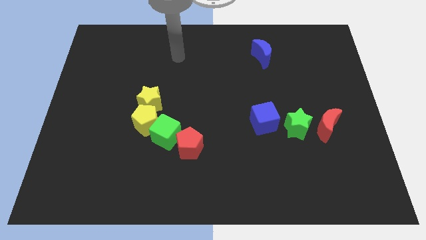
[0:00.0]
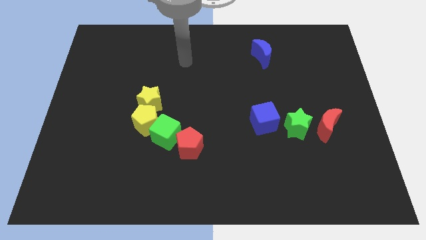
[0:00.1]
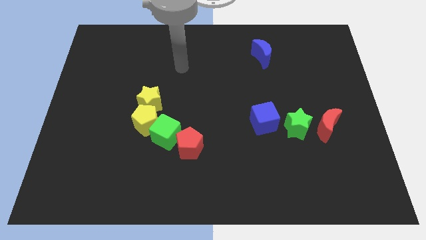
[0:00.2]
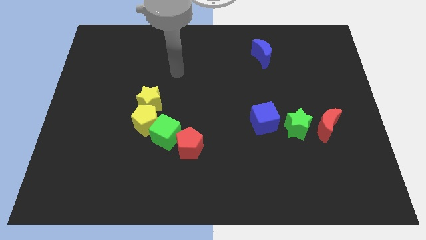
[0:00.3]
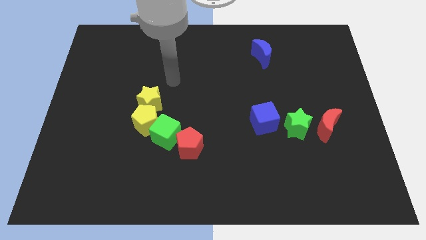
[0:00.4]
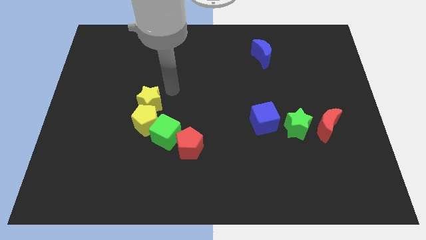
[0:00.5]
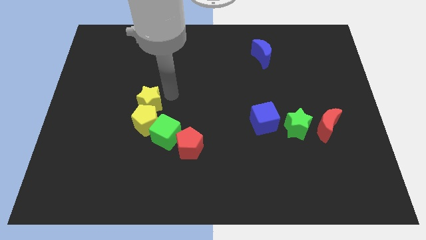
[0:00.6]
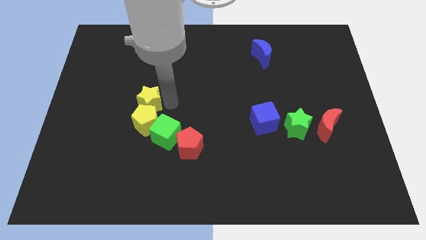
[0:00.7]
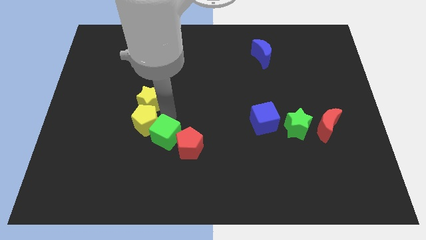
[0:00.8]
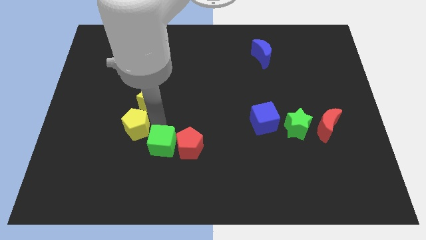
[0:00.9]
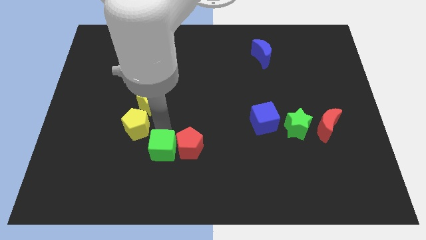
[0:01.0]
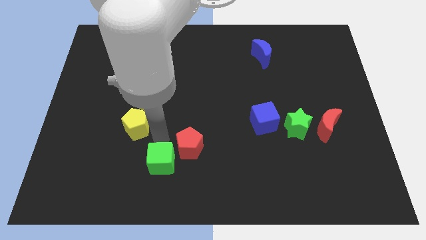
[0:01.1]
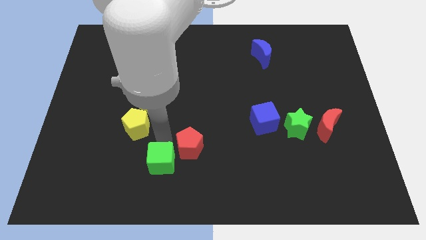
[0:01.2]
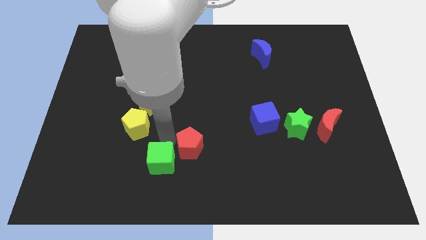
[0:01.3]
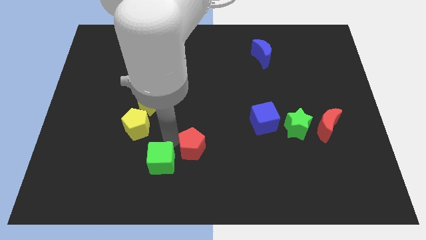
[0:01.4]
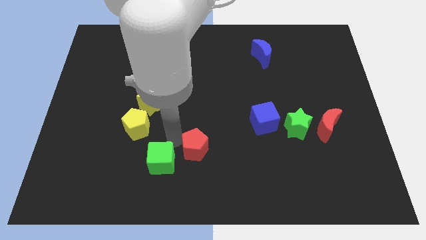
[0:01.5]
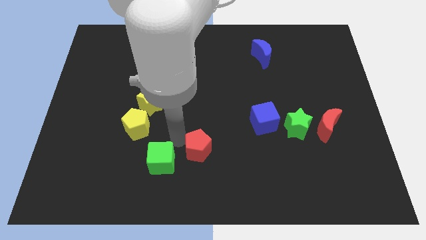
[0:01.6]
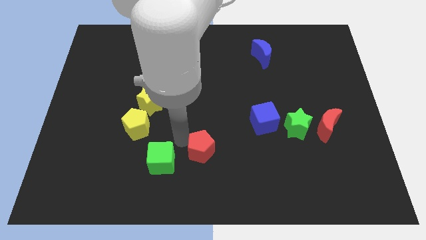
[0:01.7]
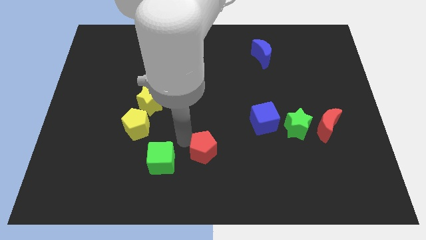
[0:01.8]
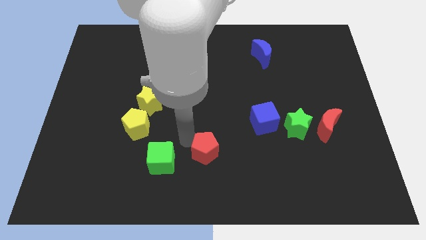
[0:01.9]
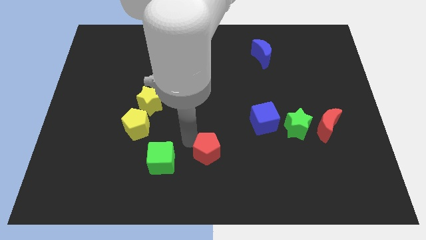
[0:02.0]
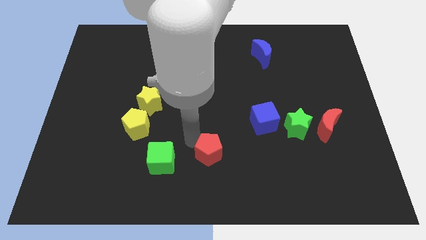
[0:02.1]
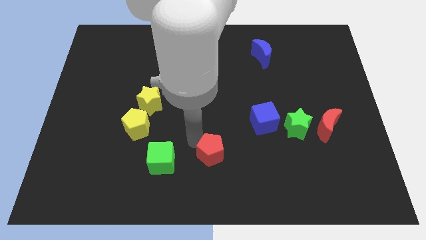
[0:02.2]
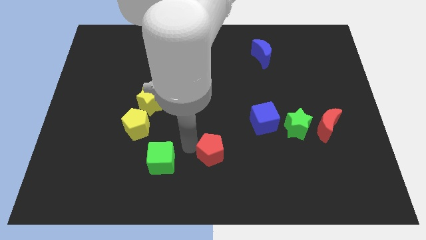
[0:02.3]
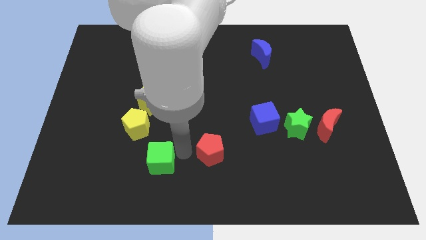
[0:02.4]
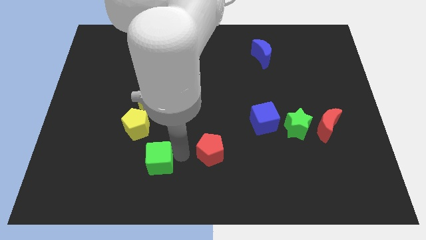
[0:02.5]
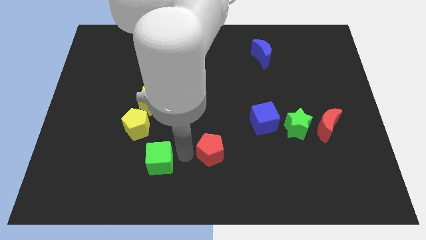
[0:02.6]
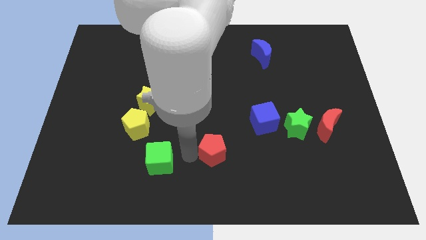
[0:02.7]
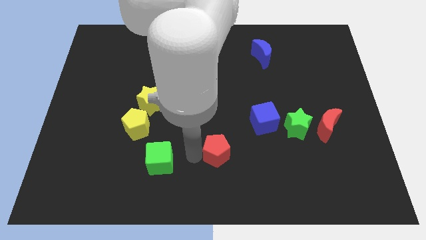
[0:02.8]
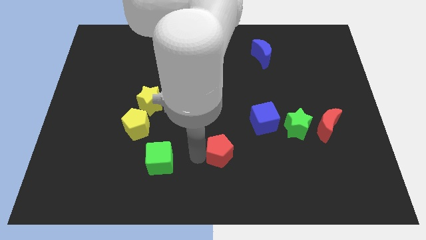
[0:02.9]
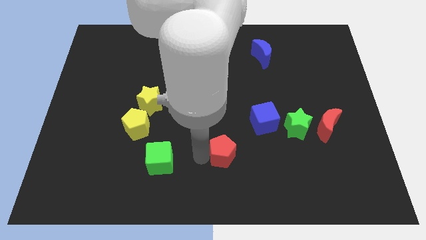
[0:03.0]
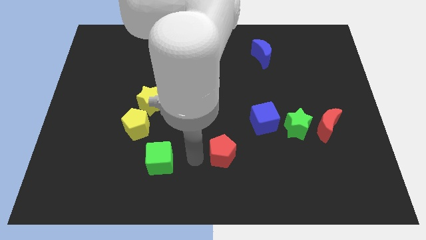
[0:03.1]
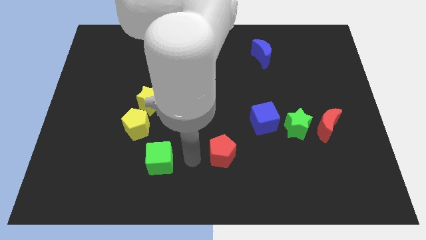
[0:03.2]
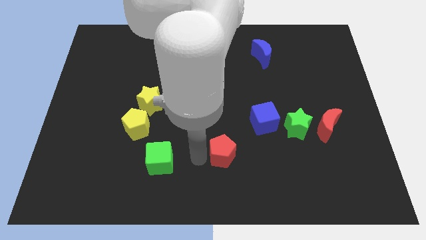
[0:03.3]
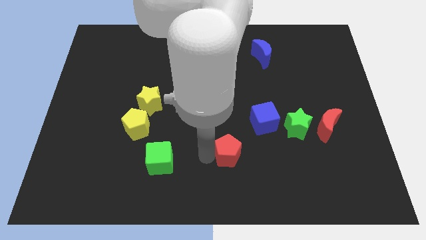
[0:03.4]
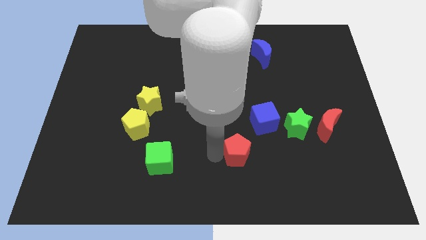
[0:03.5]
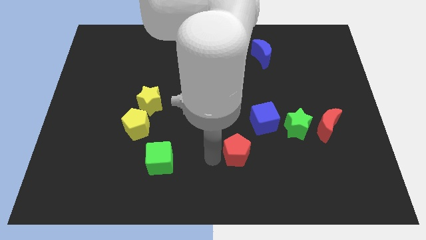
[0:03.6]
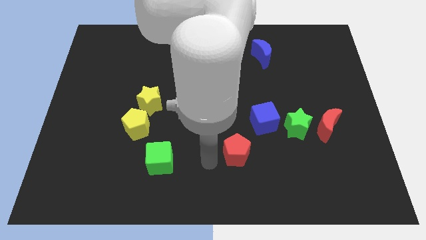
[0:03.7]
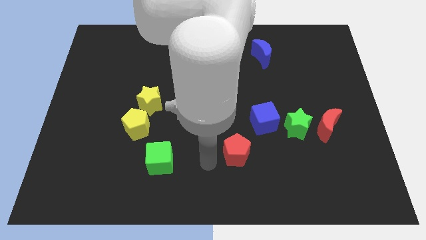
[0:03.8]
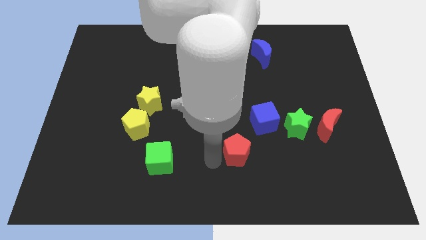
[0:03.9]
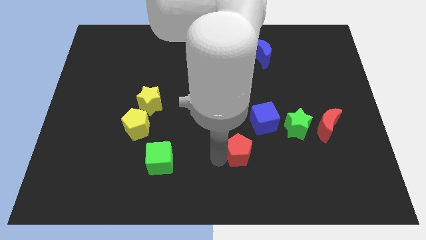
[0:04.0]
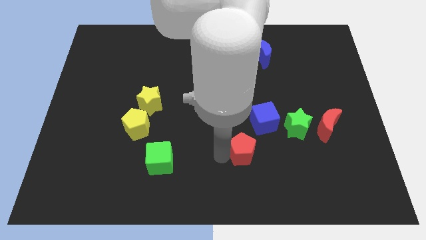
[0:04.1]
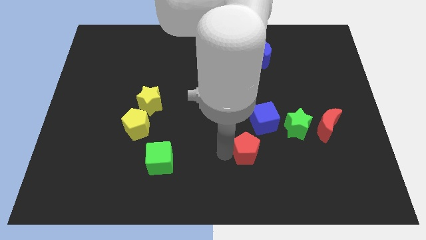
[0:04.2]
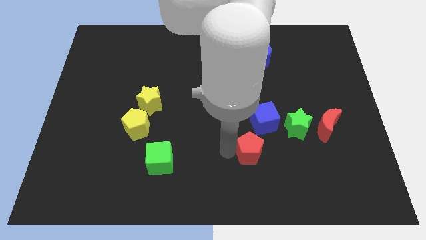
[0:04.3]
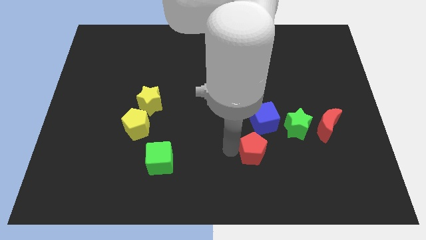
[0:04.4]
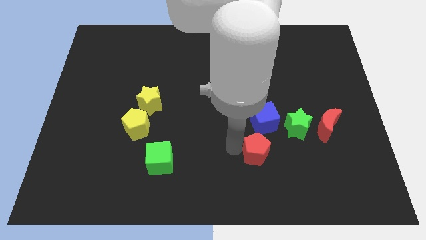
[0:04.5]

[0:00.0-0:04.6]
put the red pentagon to the bottom left of the green star

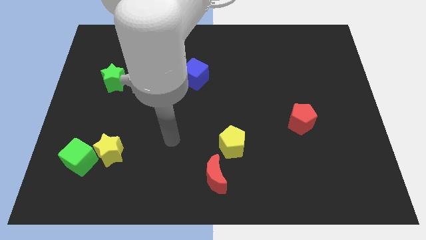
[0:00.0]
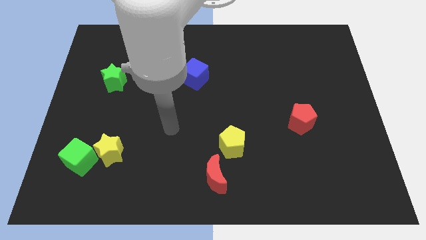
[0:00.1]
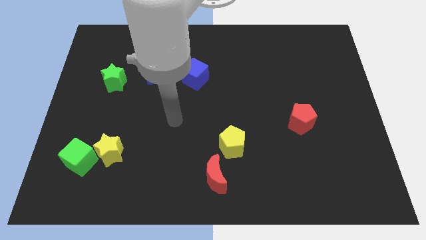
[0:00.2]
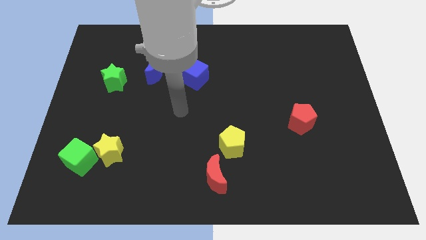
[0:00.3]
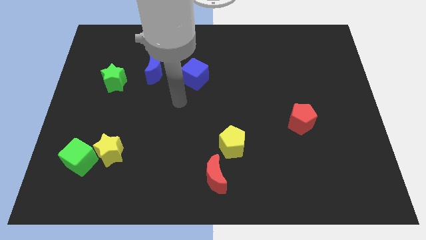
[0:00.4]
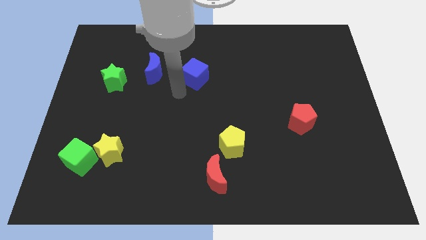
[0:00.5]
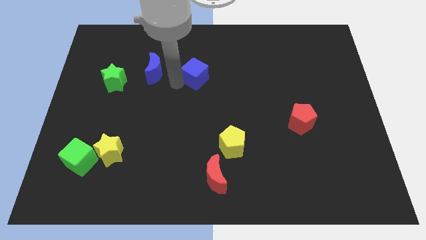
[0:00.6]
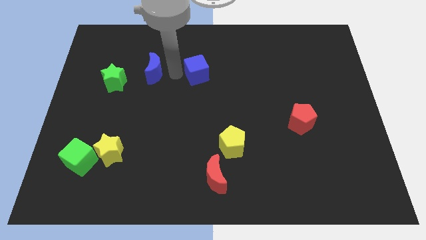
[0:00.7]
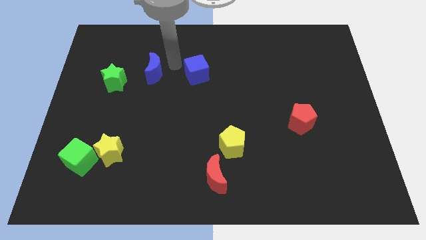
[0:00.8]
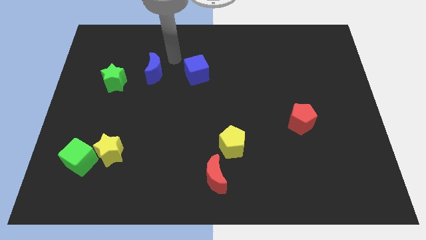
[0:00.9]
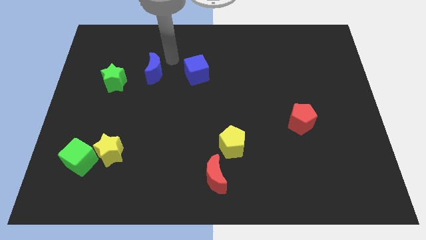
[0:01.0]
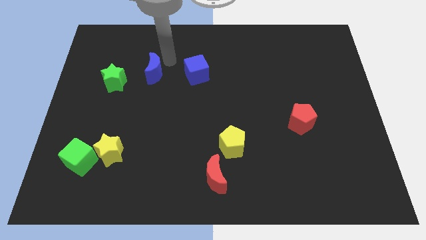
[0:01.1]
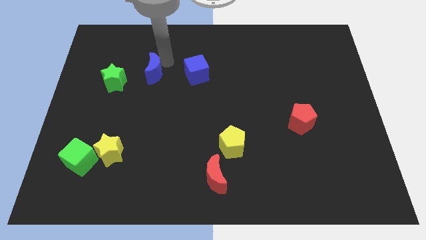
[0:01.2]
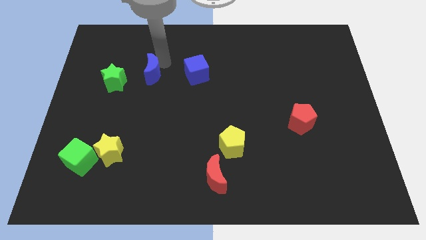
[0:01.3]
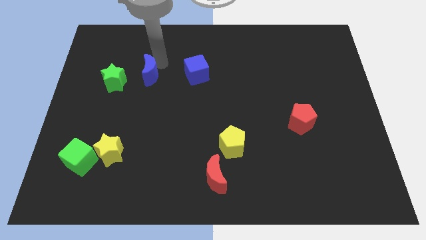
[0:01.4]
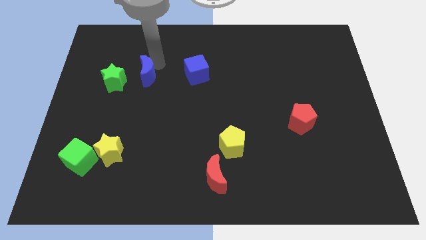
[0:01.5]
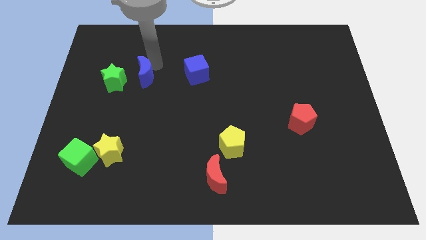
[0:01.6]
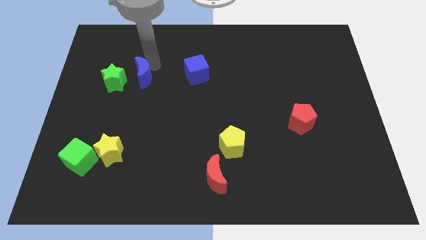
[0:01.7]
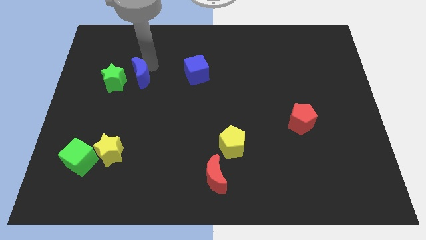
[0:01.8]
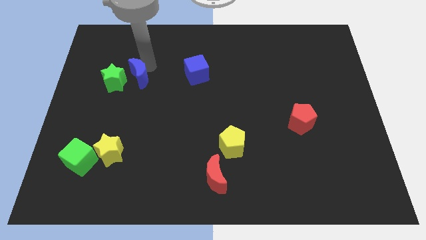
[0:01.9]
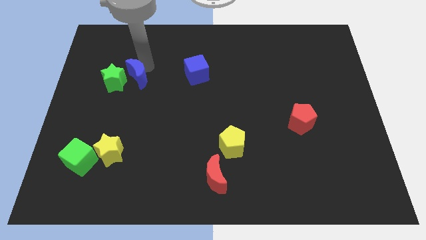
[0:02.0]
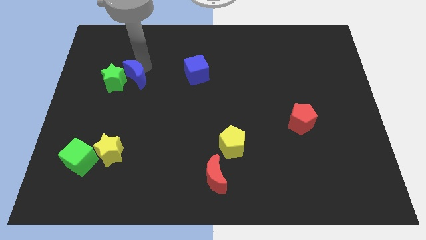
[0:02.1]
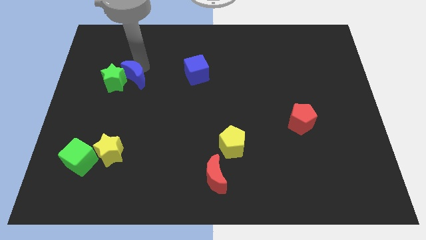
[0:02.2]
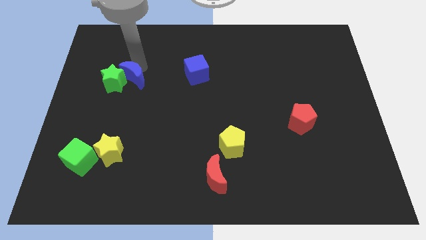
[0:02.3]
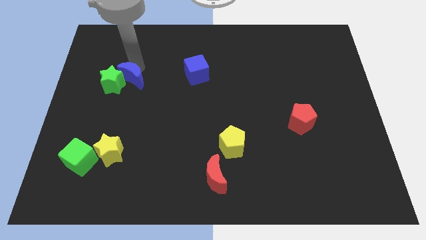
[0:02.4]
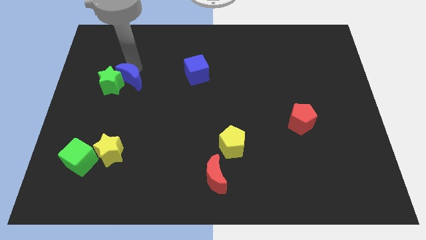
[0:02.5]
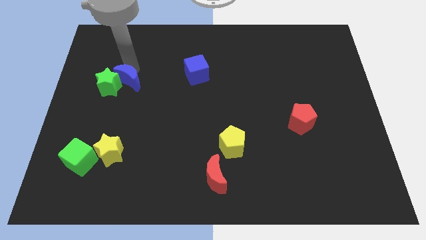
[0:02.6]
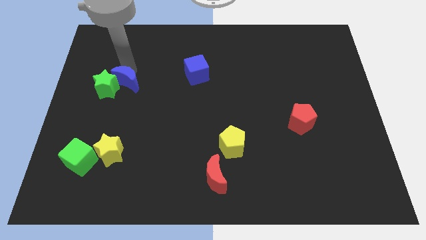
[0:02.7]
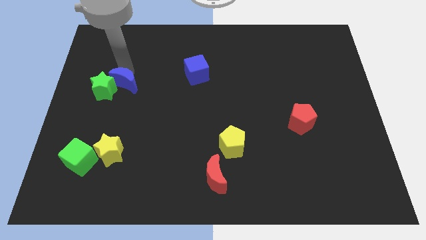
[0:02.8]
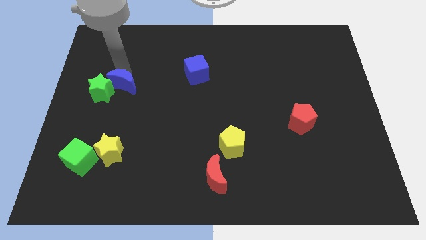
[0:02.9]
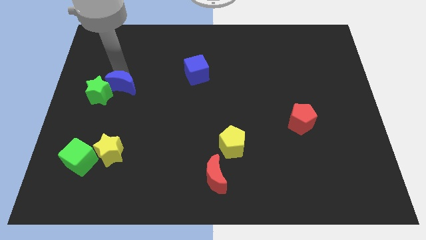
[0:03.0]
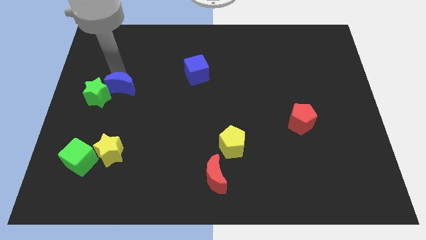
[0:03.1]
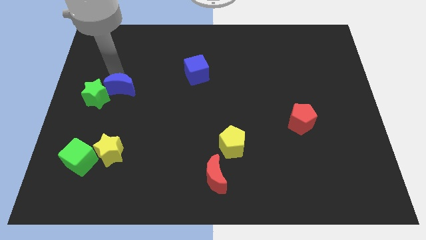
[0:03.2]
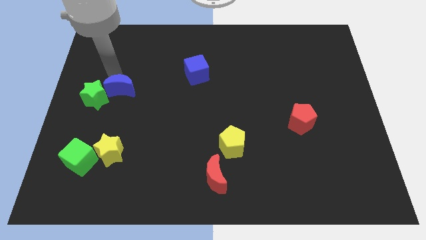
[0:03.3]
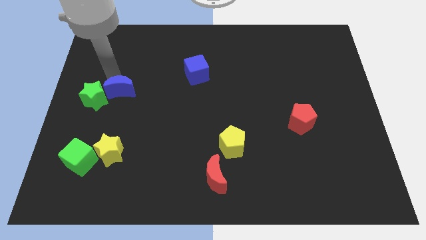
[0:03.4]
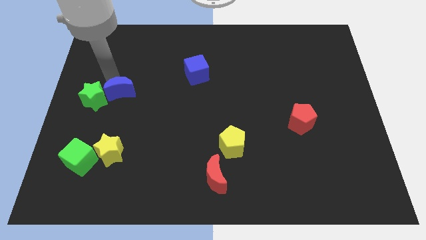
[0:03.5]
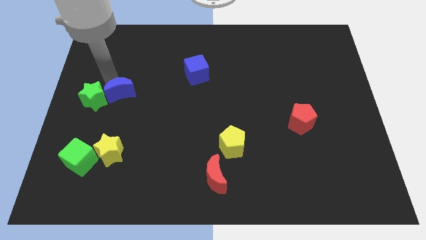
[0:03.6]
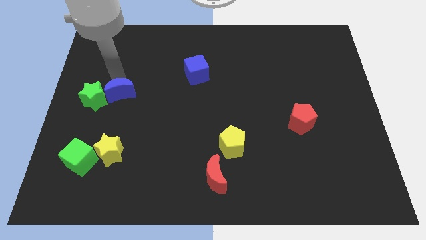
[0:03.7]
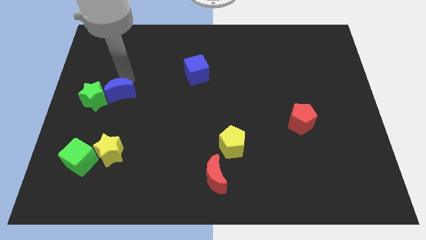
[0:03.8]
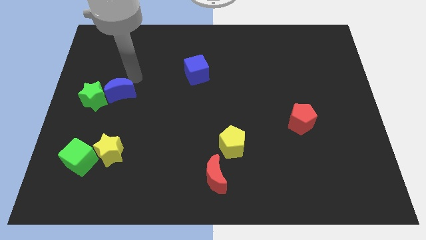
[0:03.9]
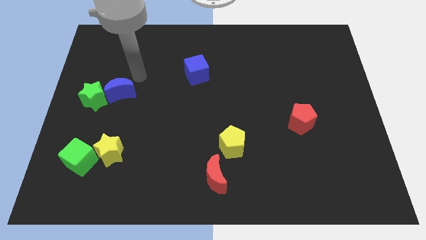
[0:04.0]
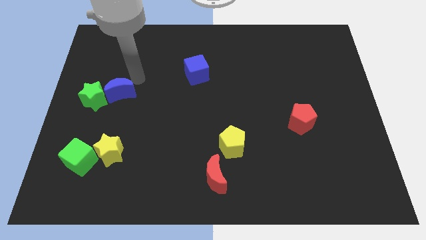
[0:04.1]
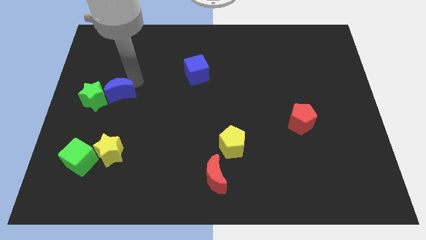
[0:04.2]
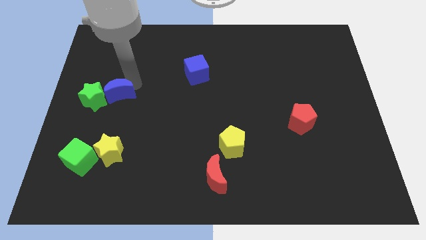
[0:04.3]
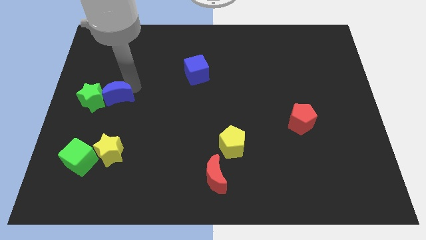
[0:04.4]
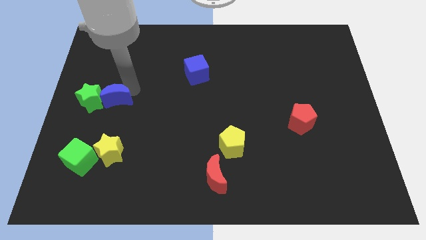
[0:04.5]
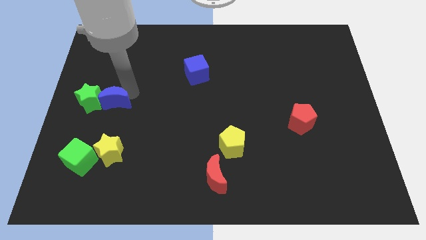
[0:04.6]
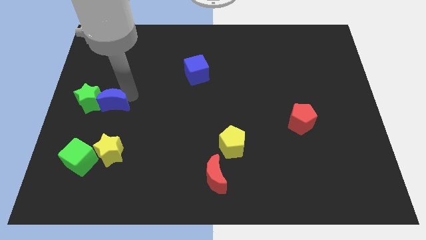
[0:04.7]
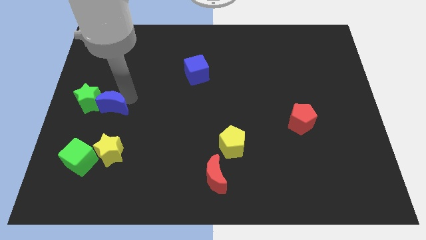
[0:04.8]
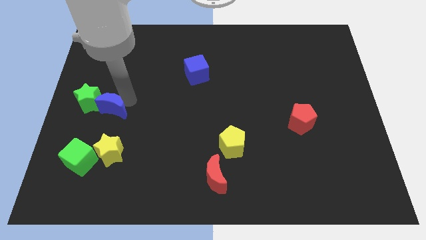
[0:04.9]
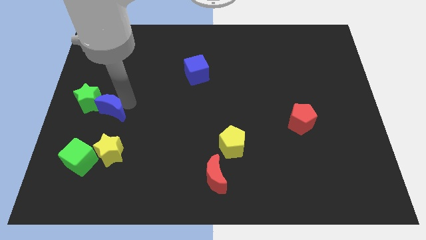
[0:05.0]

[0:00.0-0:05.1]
push the blue moon to the top side of the green cube
